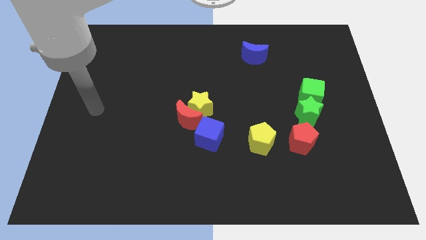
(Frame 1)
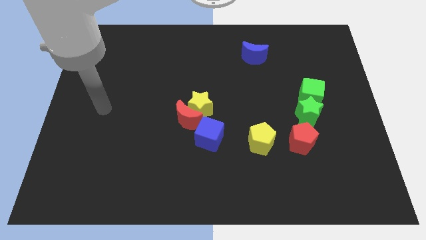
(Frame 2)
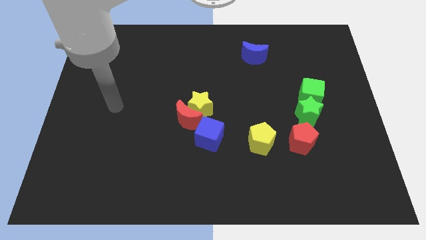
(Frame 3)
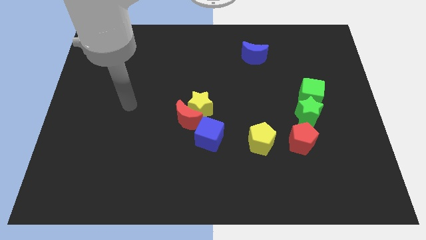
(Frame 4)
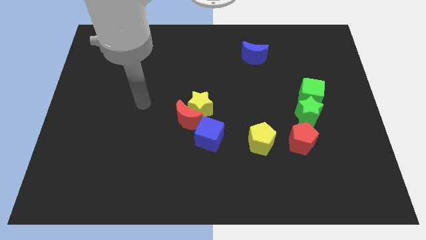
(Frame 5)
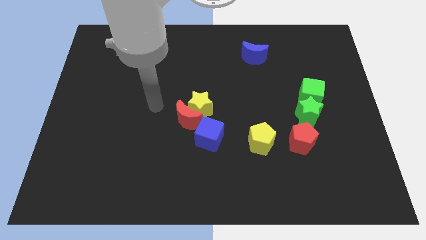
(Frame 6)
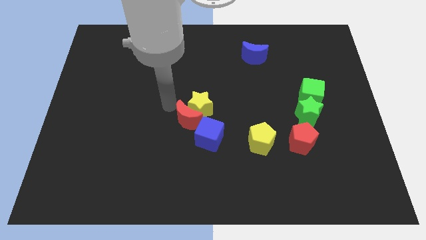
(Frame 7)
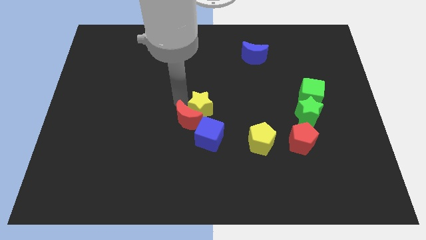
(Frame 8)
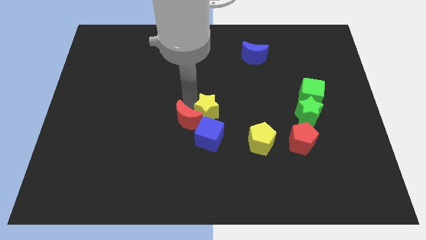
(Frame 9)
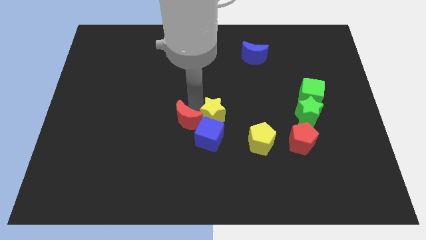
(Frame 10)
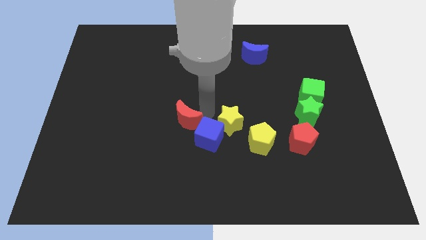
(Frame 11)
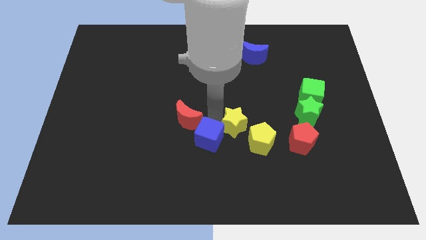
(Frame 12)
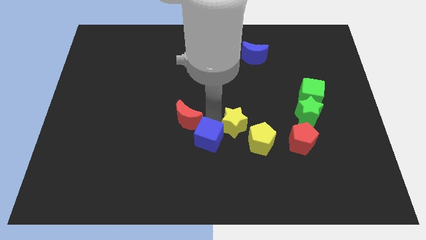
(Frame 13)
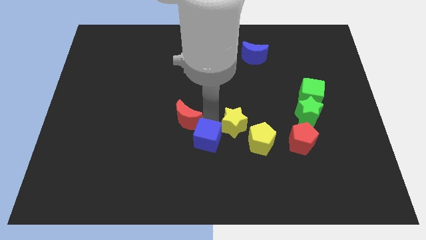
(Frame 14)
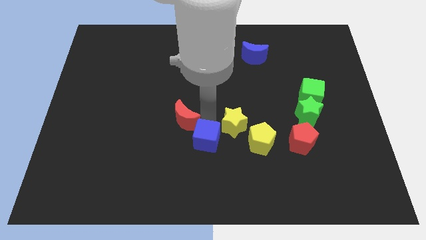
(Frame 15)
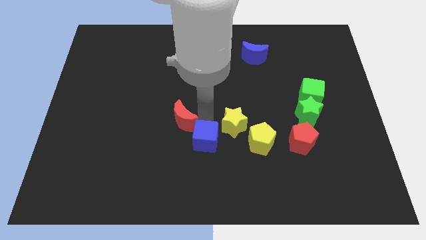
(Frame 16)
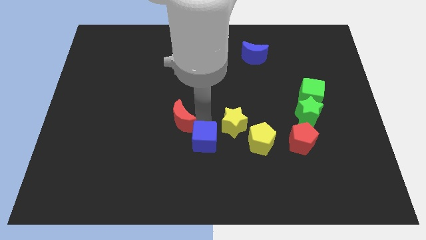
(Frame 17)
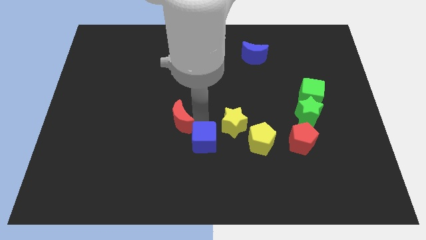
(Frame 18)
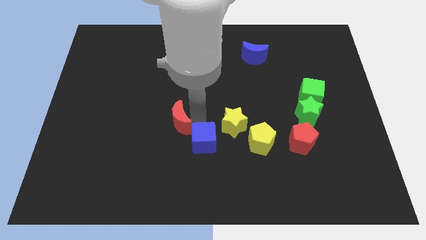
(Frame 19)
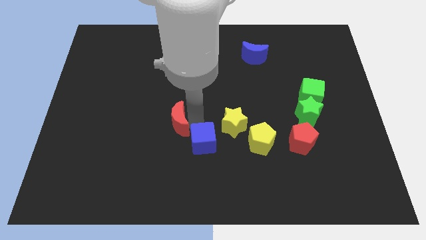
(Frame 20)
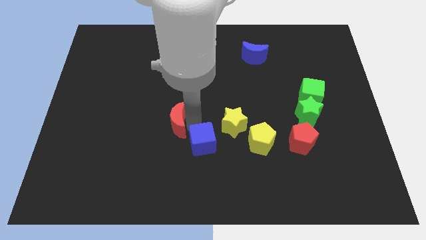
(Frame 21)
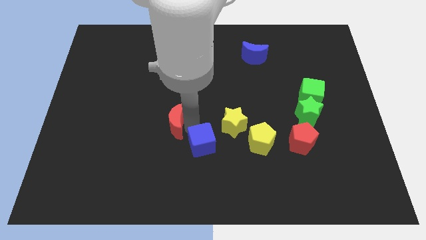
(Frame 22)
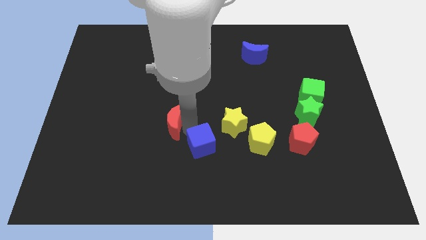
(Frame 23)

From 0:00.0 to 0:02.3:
move the red moon away from the yellow star and blue cube

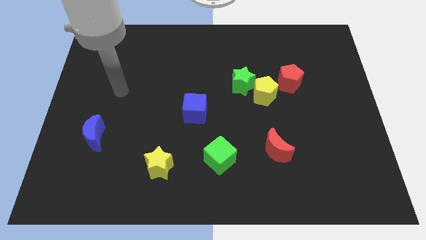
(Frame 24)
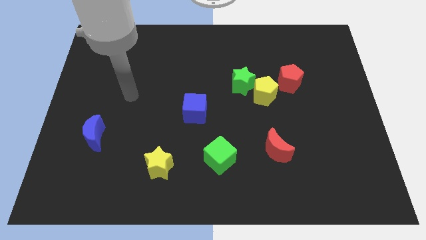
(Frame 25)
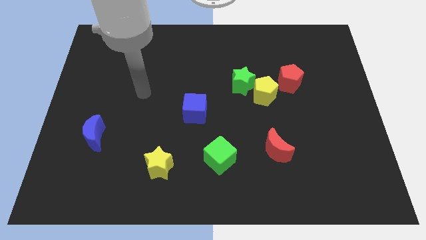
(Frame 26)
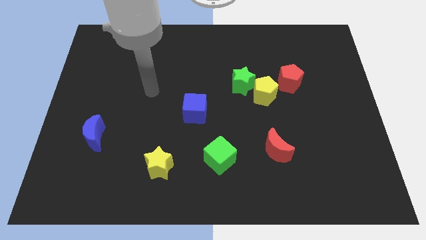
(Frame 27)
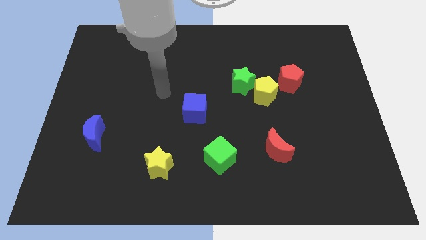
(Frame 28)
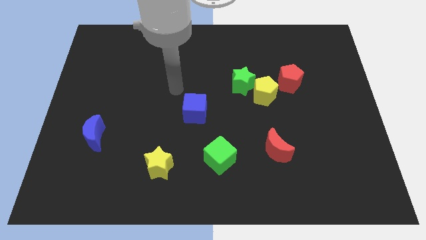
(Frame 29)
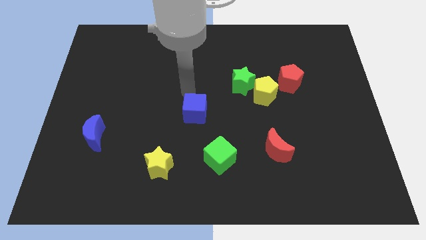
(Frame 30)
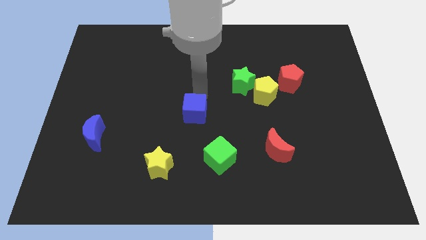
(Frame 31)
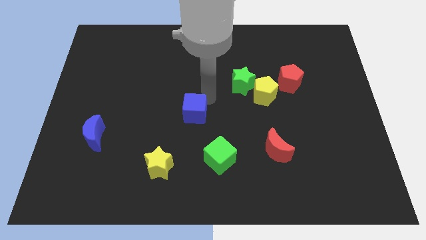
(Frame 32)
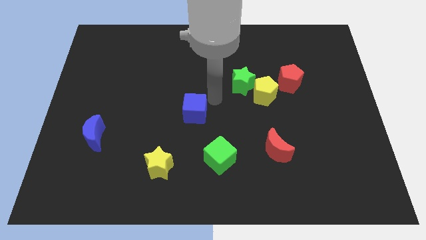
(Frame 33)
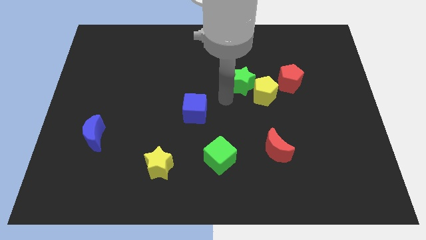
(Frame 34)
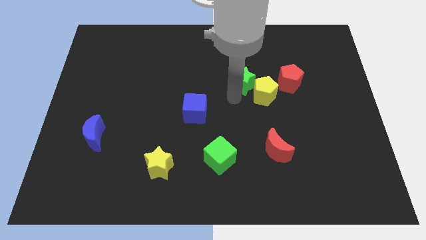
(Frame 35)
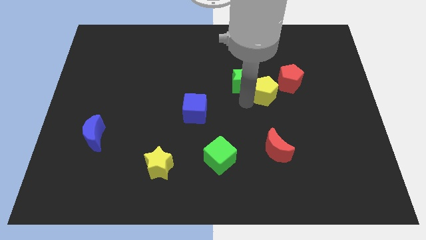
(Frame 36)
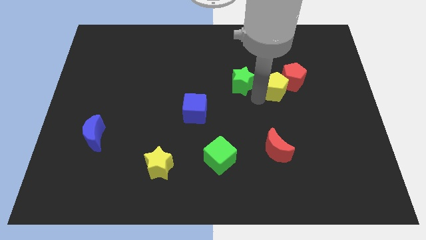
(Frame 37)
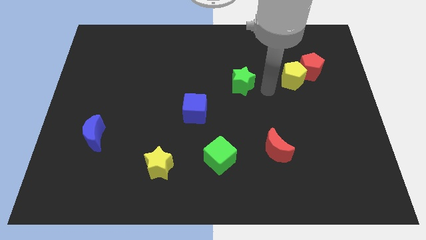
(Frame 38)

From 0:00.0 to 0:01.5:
pull the green star apart from the yellow pentagon

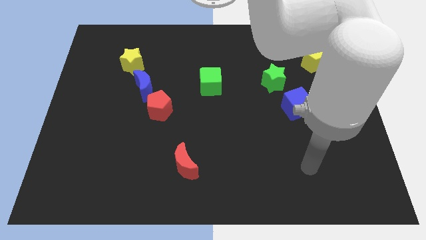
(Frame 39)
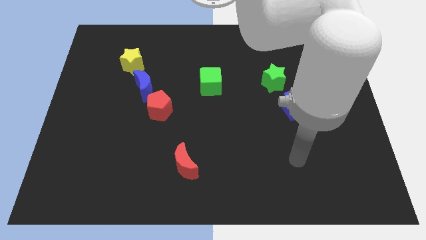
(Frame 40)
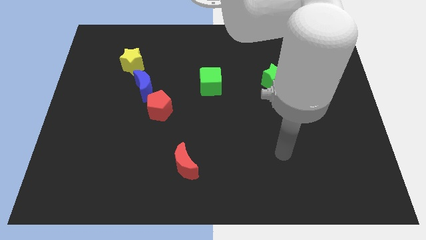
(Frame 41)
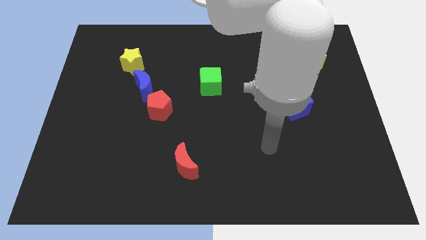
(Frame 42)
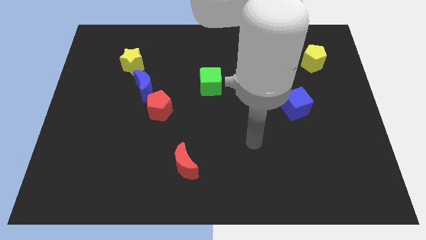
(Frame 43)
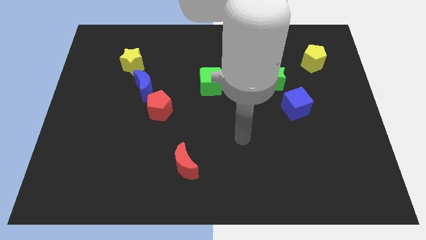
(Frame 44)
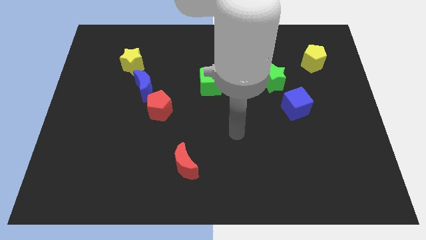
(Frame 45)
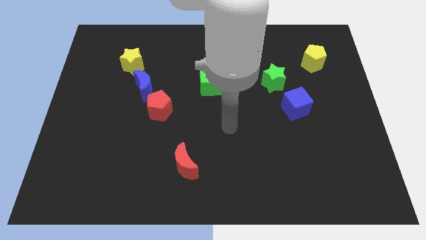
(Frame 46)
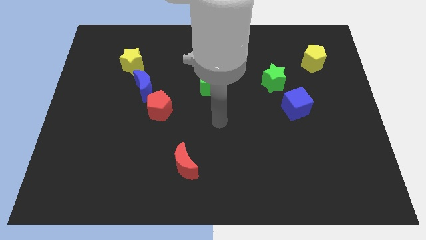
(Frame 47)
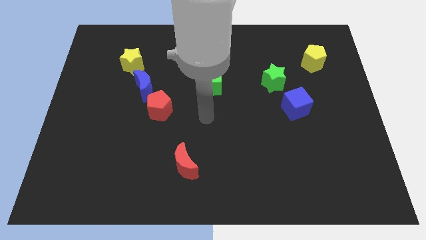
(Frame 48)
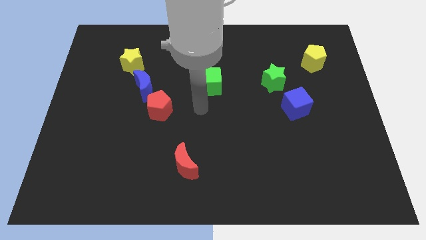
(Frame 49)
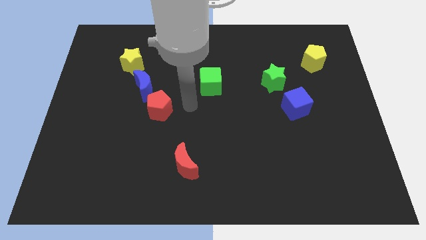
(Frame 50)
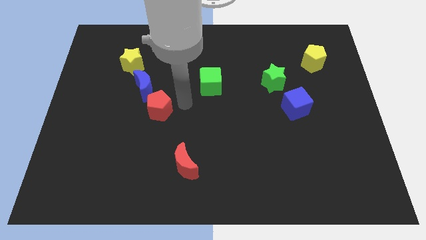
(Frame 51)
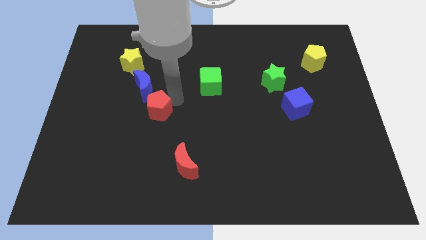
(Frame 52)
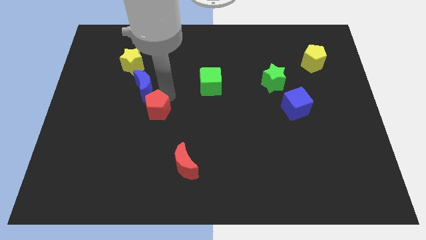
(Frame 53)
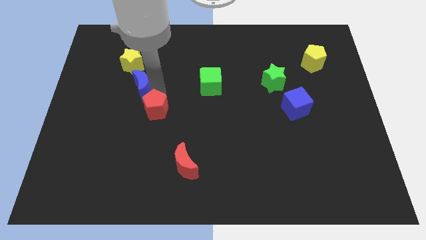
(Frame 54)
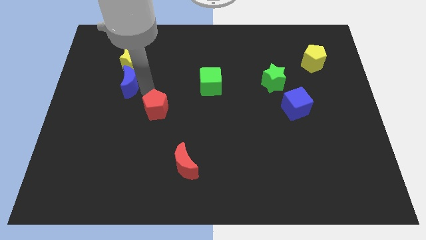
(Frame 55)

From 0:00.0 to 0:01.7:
separate the red pentagon from the blue moon

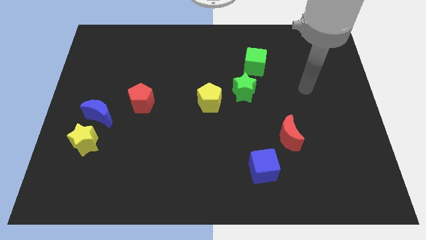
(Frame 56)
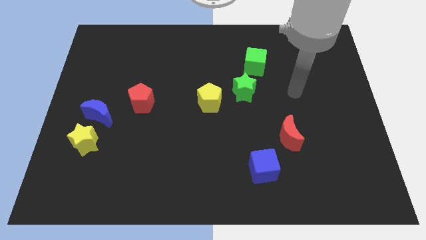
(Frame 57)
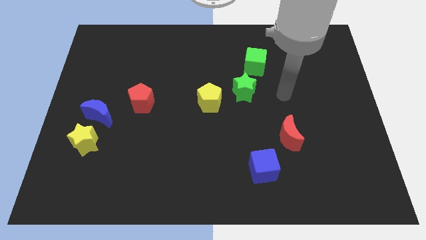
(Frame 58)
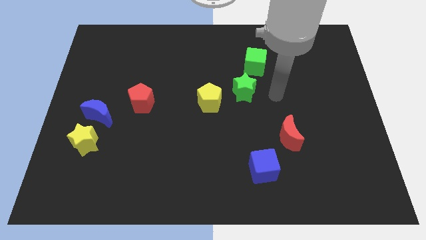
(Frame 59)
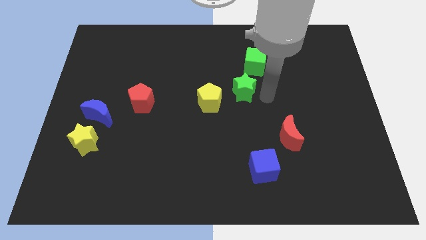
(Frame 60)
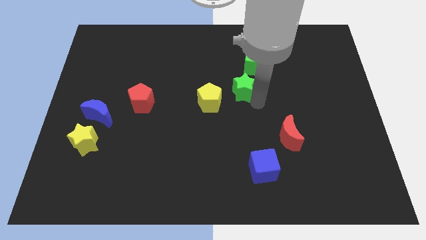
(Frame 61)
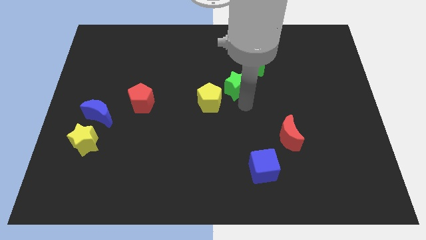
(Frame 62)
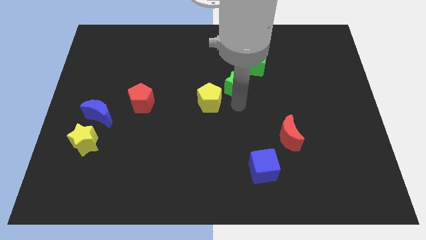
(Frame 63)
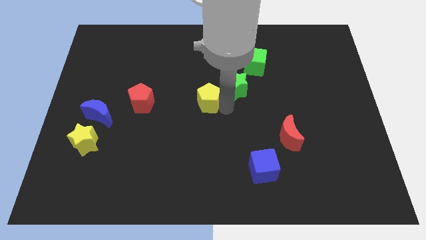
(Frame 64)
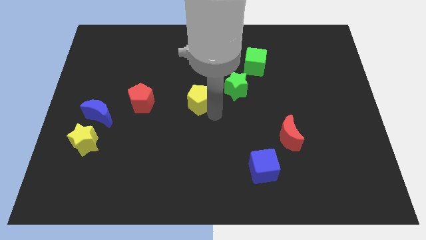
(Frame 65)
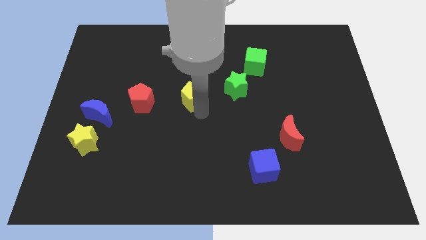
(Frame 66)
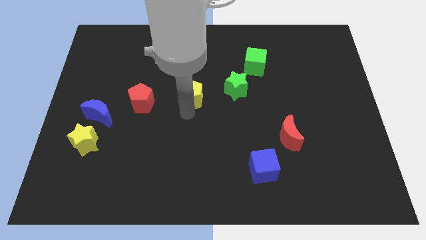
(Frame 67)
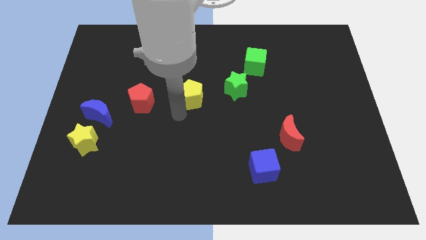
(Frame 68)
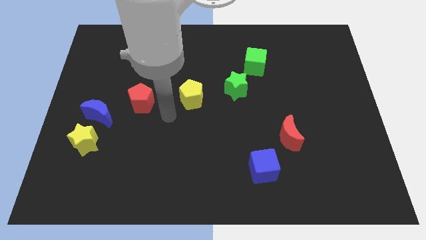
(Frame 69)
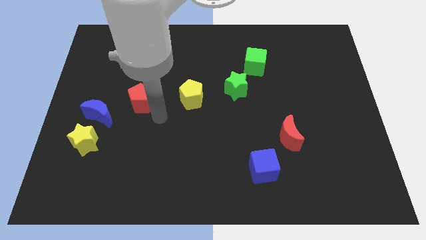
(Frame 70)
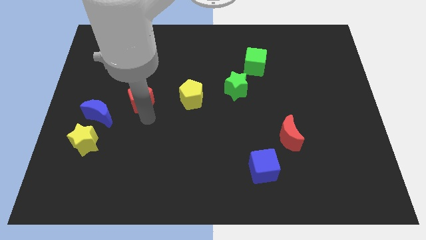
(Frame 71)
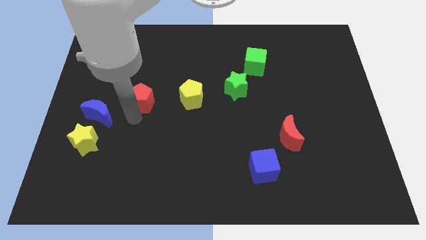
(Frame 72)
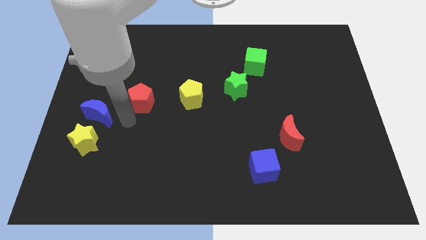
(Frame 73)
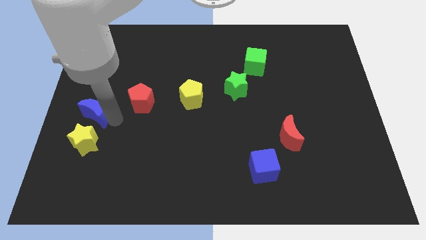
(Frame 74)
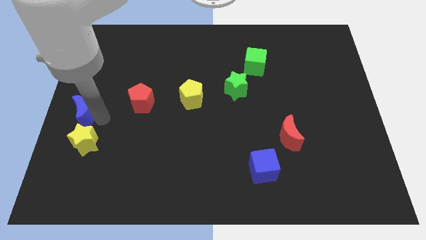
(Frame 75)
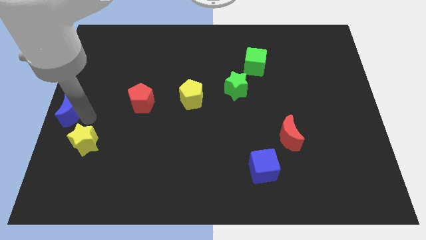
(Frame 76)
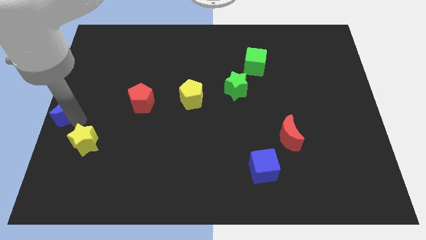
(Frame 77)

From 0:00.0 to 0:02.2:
move the yellow star away from the blue moon

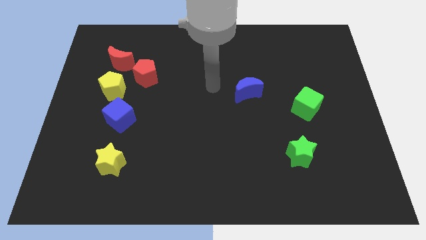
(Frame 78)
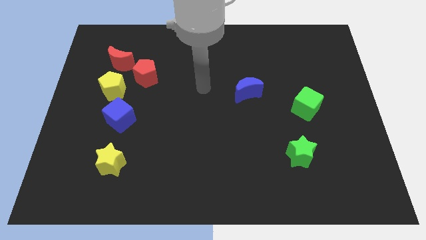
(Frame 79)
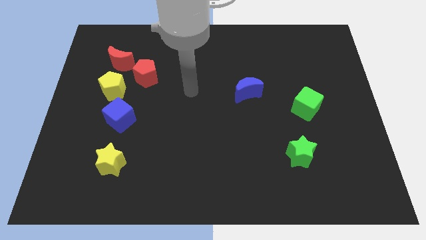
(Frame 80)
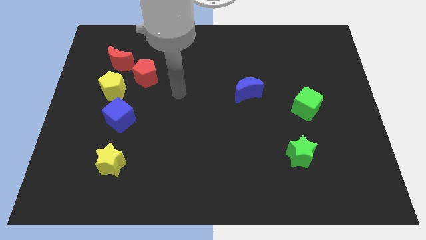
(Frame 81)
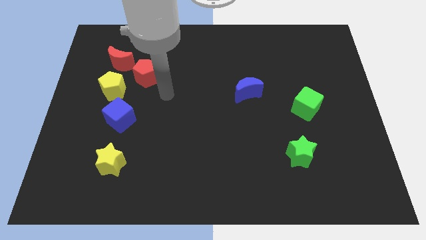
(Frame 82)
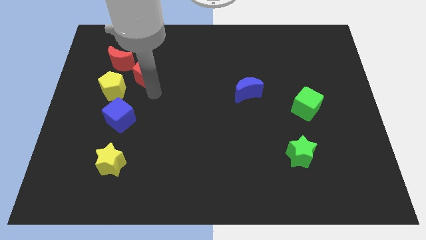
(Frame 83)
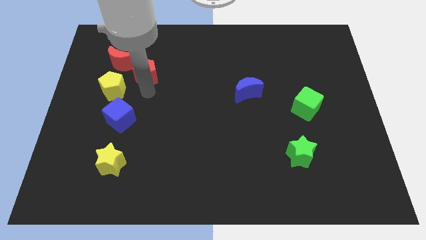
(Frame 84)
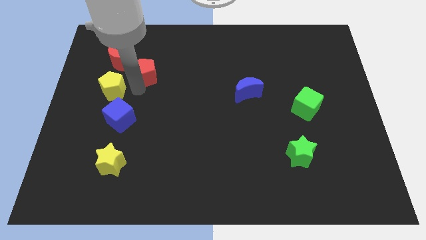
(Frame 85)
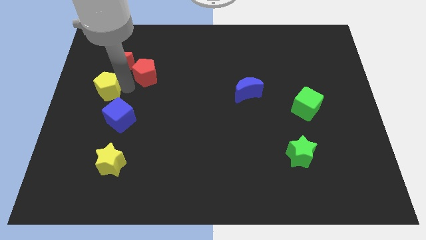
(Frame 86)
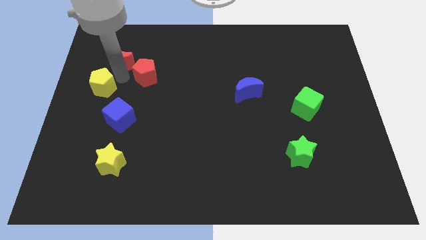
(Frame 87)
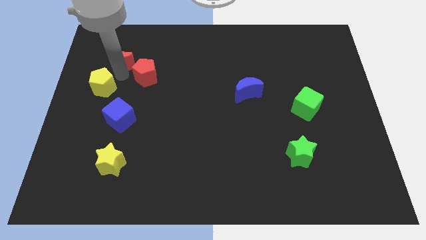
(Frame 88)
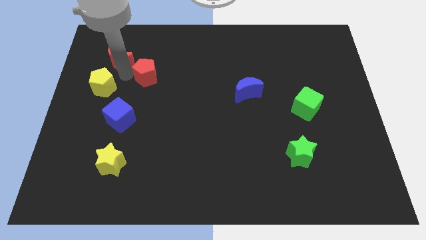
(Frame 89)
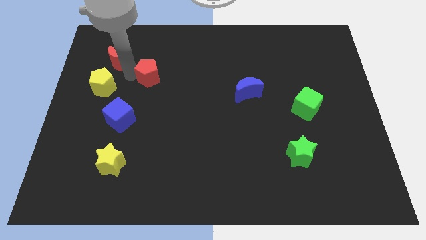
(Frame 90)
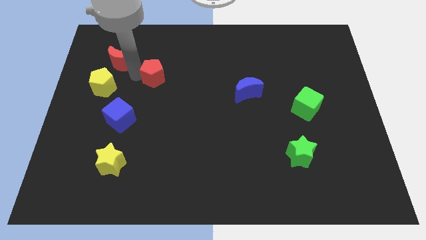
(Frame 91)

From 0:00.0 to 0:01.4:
pull the red pentagon apart from the red moon and yellow pentagon

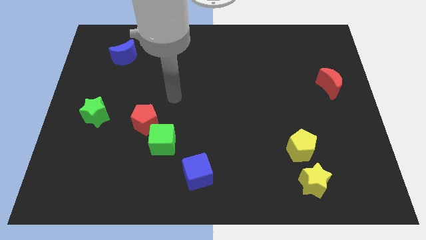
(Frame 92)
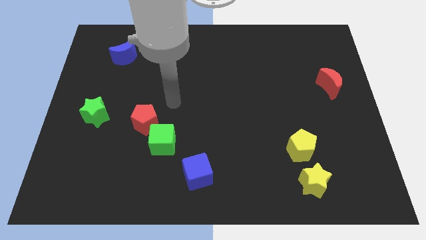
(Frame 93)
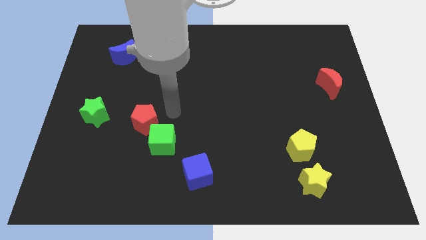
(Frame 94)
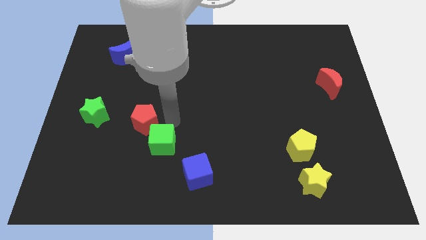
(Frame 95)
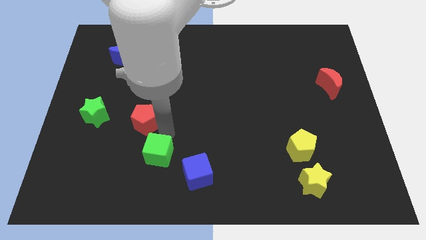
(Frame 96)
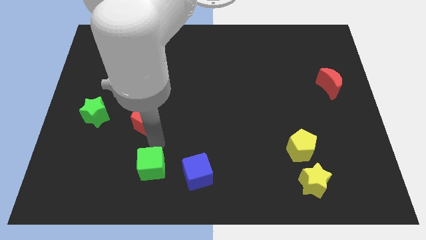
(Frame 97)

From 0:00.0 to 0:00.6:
pull the red pentagon apart from the green cube
